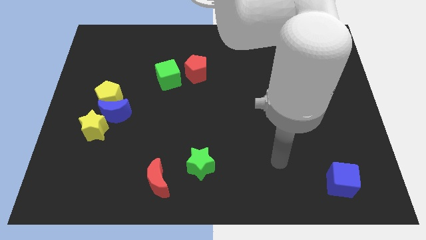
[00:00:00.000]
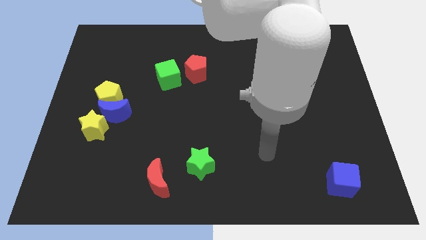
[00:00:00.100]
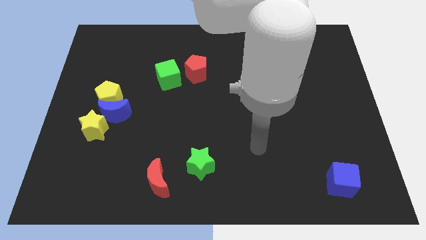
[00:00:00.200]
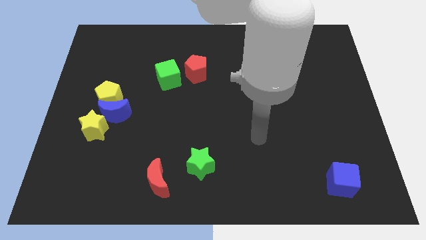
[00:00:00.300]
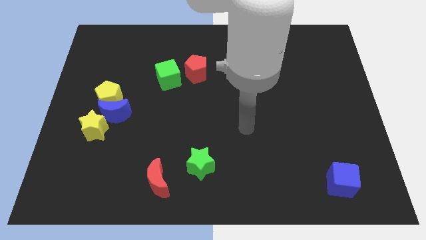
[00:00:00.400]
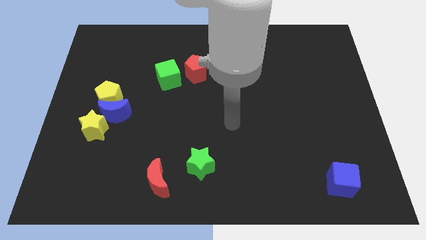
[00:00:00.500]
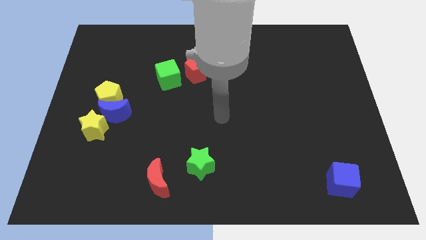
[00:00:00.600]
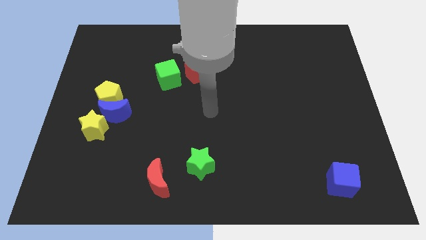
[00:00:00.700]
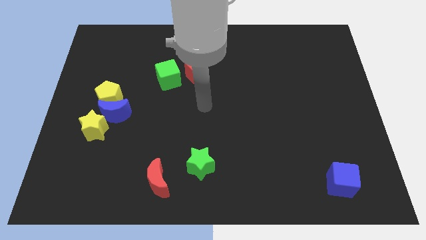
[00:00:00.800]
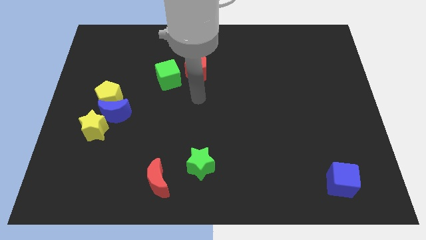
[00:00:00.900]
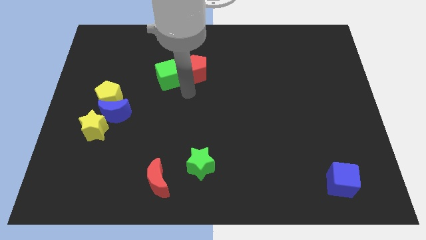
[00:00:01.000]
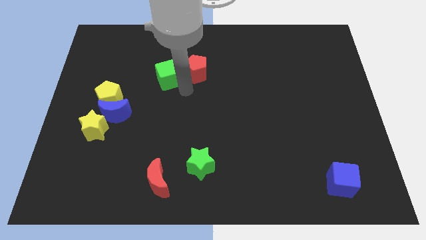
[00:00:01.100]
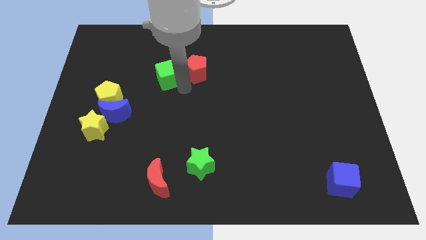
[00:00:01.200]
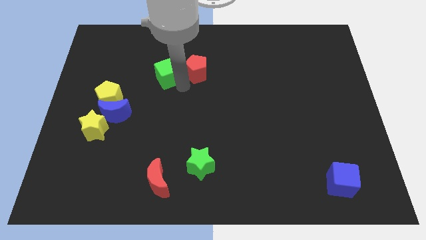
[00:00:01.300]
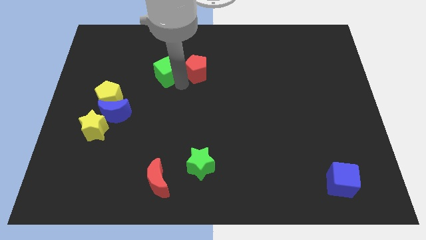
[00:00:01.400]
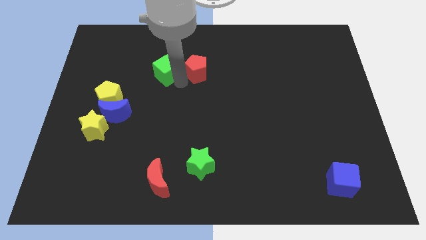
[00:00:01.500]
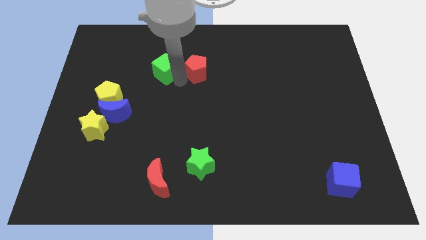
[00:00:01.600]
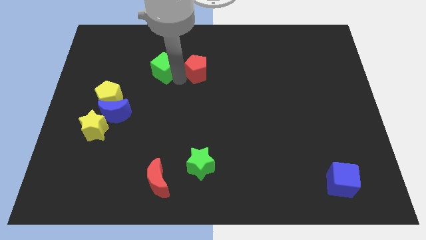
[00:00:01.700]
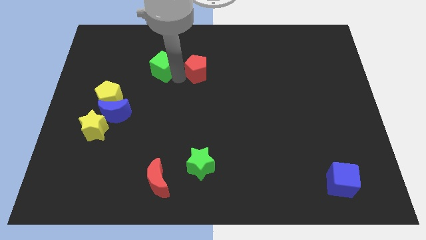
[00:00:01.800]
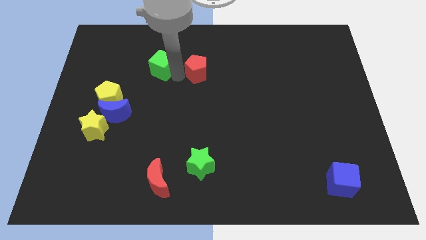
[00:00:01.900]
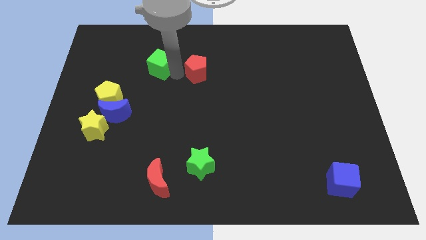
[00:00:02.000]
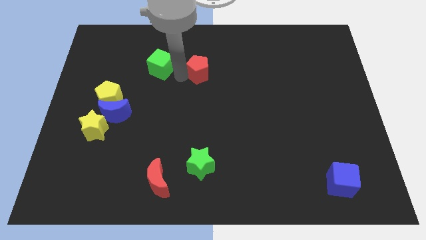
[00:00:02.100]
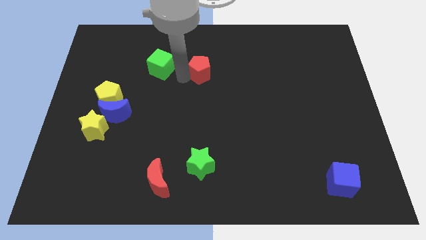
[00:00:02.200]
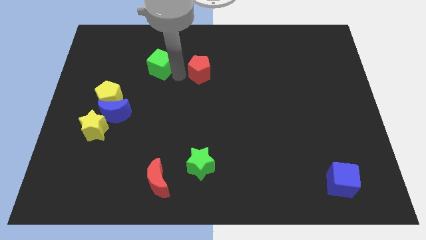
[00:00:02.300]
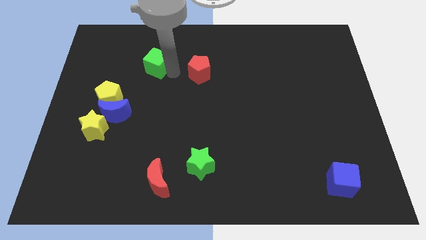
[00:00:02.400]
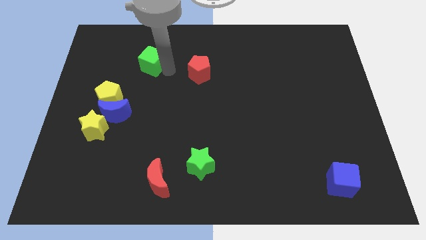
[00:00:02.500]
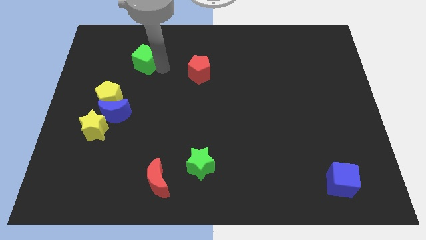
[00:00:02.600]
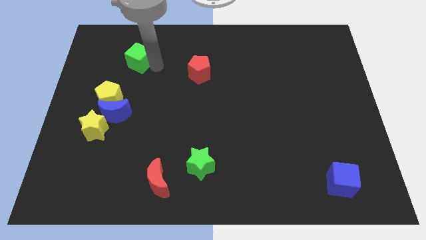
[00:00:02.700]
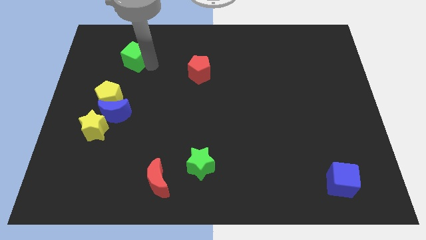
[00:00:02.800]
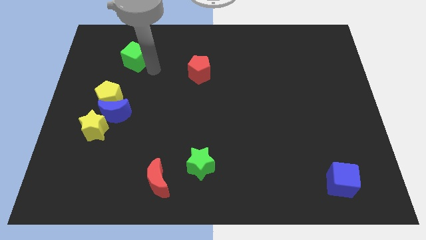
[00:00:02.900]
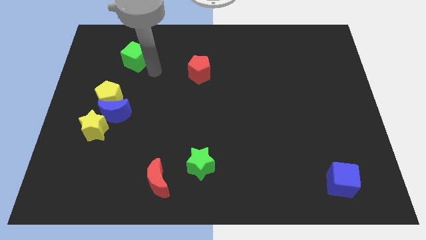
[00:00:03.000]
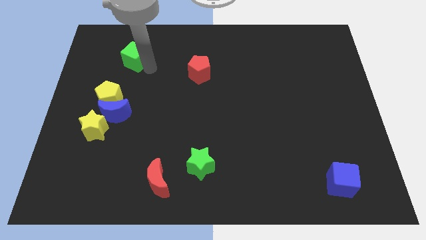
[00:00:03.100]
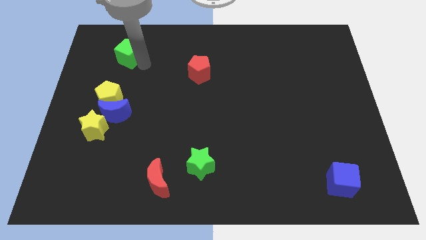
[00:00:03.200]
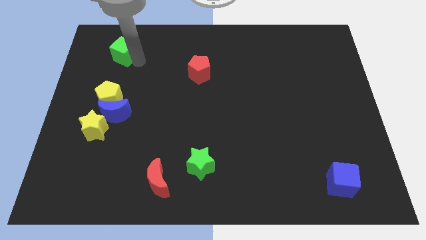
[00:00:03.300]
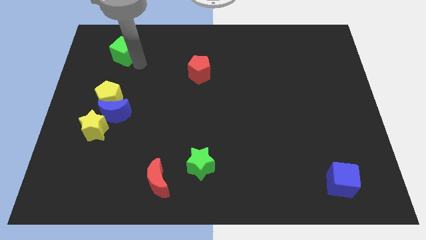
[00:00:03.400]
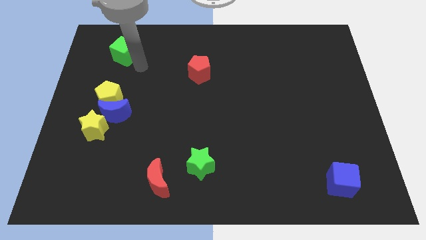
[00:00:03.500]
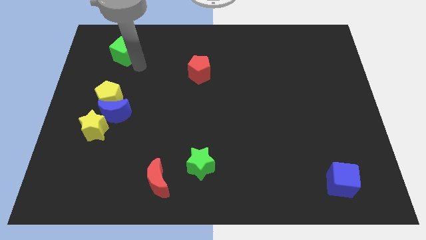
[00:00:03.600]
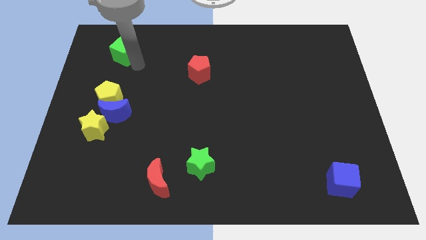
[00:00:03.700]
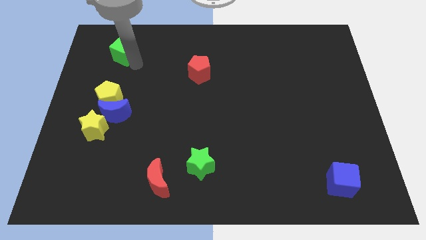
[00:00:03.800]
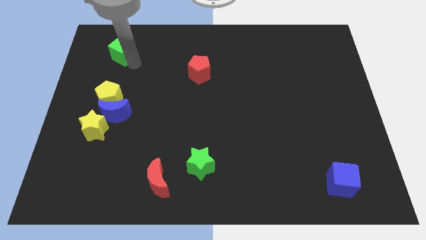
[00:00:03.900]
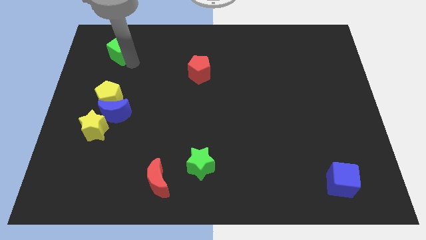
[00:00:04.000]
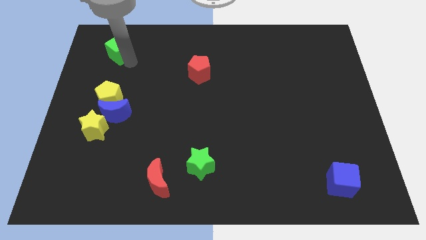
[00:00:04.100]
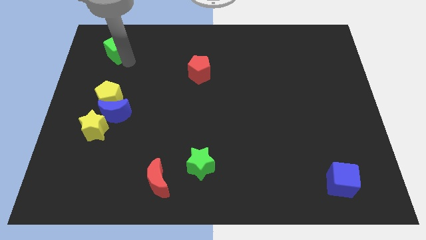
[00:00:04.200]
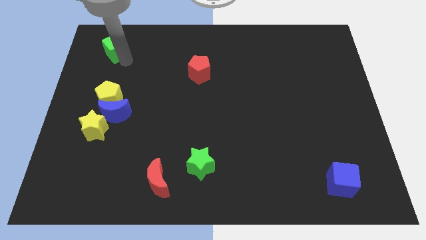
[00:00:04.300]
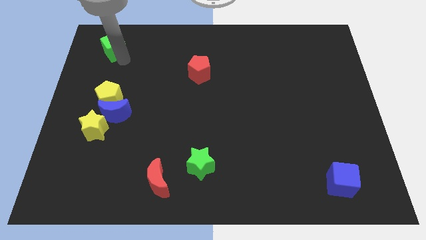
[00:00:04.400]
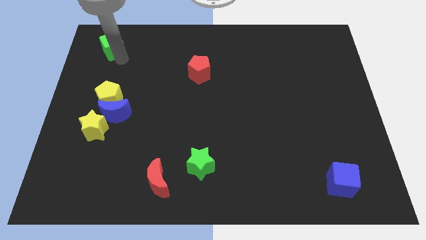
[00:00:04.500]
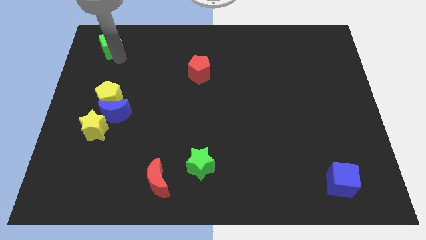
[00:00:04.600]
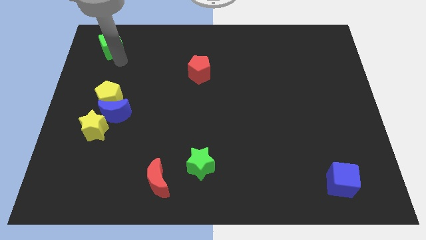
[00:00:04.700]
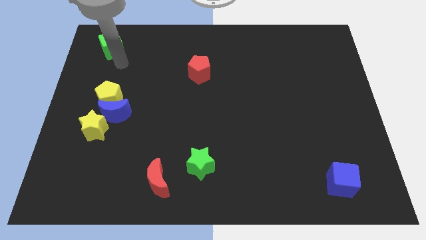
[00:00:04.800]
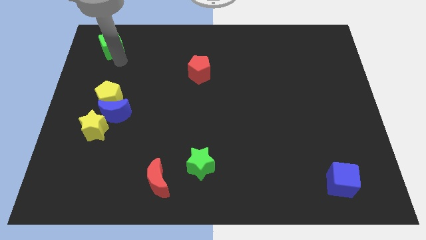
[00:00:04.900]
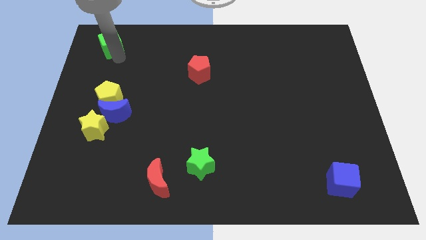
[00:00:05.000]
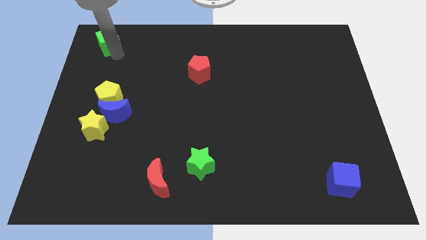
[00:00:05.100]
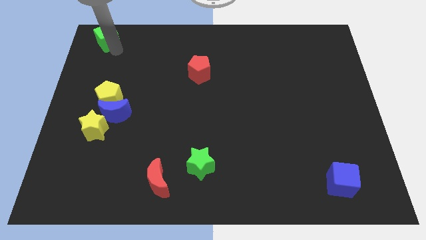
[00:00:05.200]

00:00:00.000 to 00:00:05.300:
put the green cube to the upper left corner
